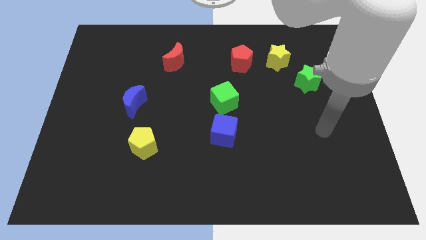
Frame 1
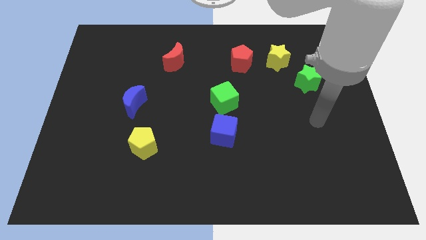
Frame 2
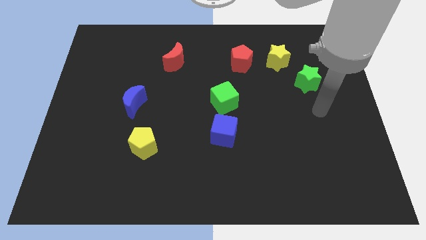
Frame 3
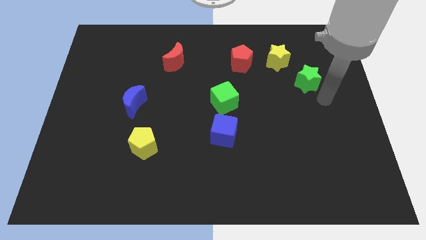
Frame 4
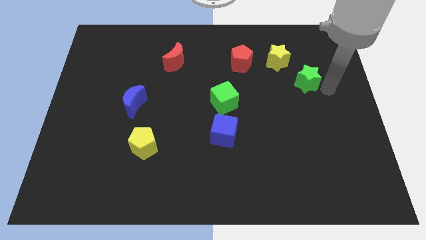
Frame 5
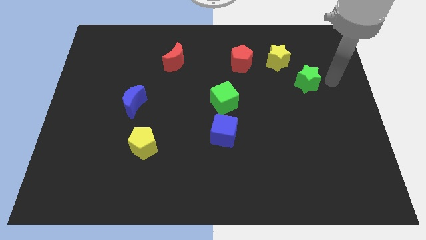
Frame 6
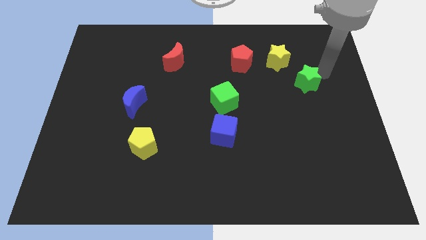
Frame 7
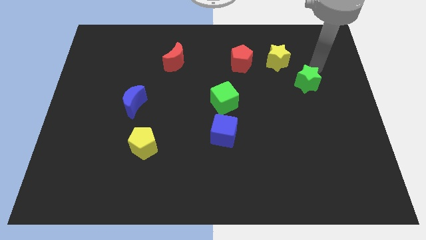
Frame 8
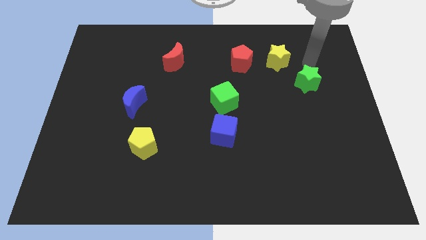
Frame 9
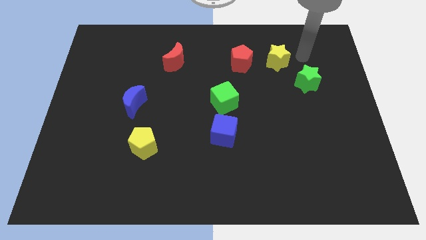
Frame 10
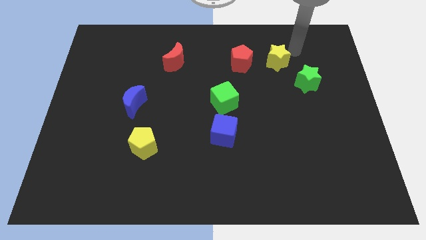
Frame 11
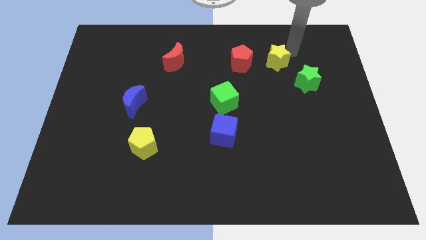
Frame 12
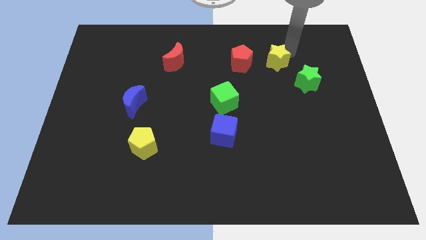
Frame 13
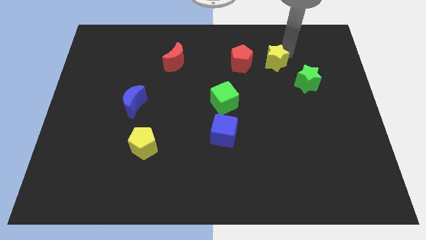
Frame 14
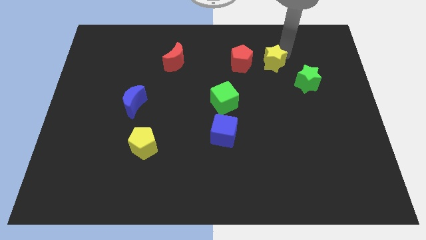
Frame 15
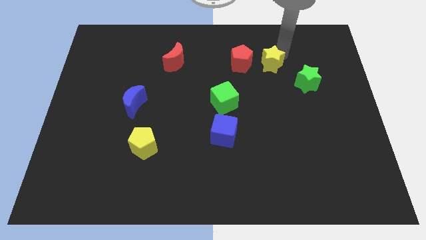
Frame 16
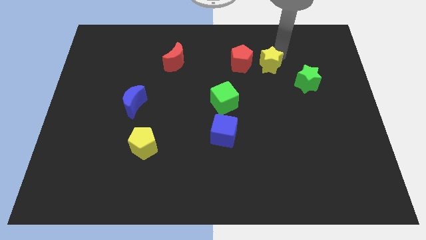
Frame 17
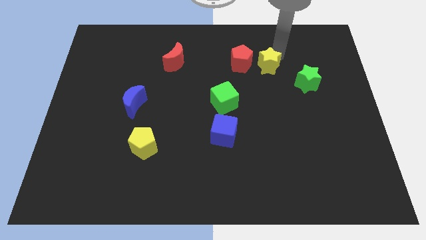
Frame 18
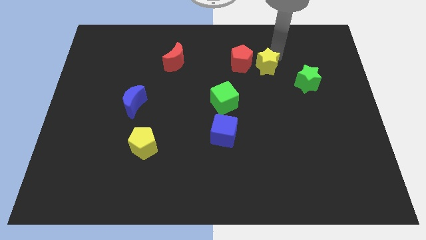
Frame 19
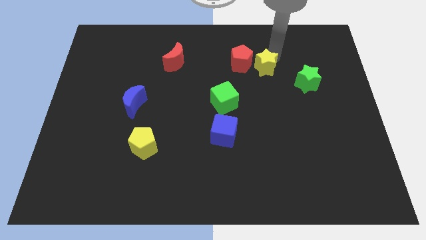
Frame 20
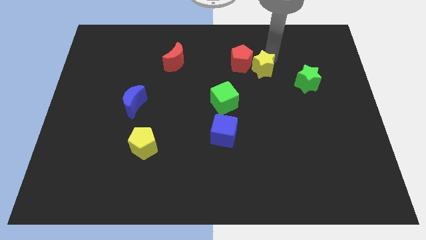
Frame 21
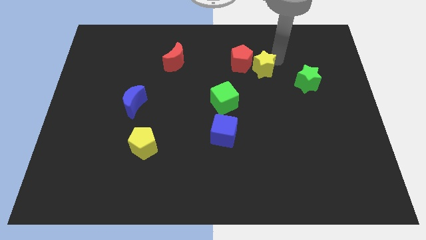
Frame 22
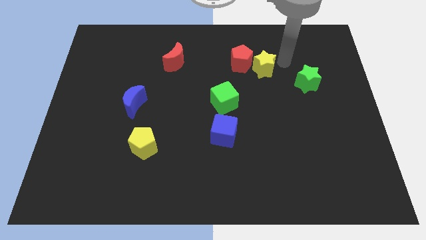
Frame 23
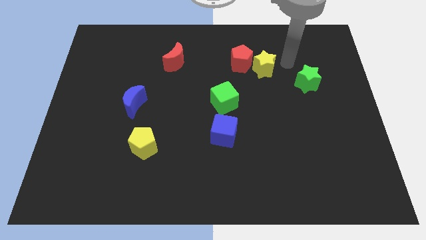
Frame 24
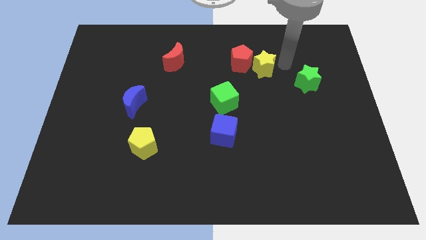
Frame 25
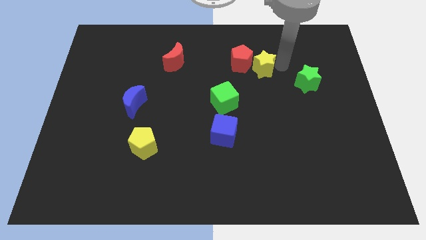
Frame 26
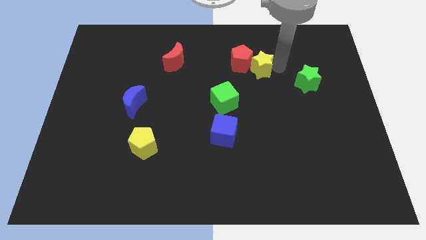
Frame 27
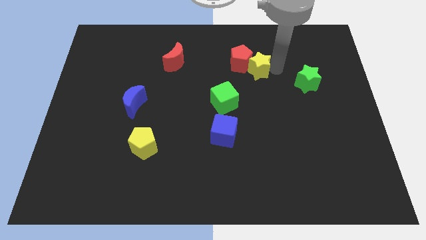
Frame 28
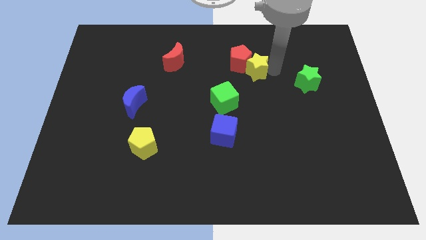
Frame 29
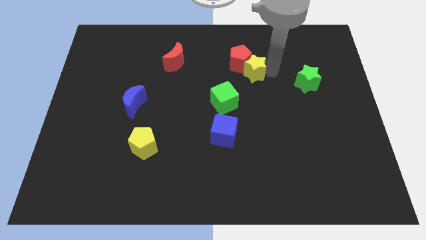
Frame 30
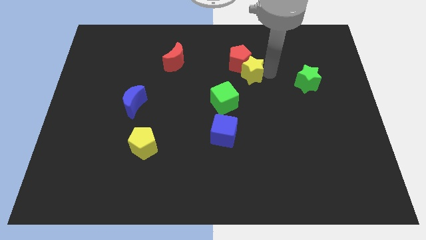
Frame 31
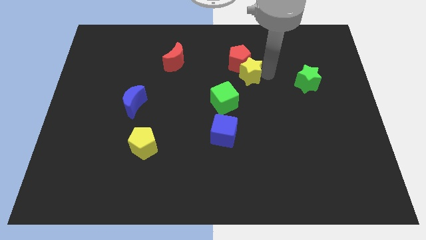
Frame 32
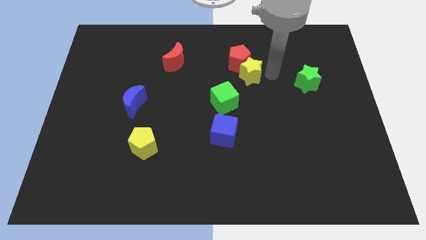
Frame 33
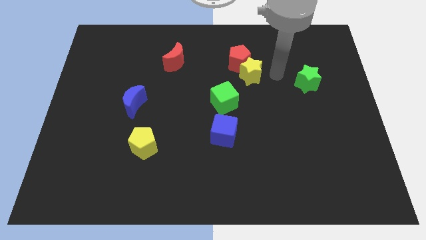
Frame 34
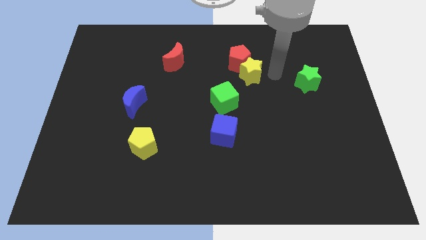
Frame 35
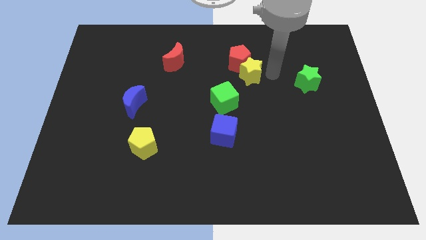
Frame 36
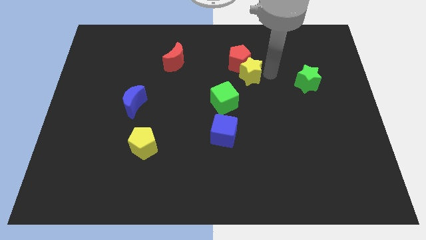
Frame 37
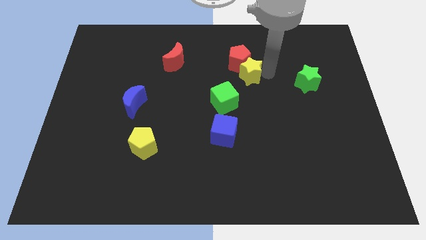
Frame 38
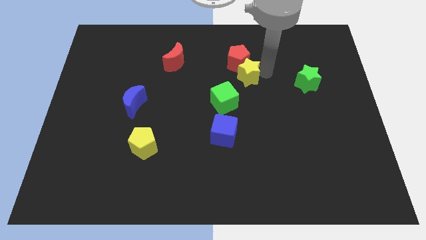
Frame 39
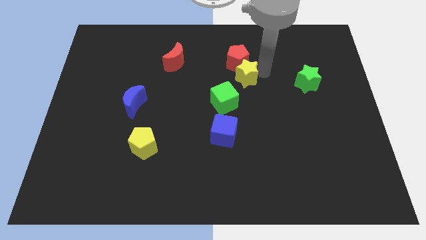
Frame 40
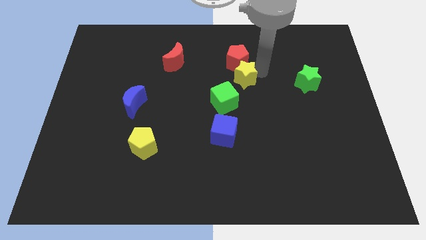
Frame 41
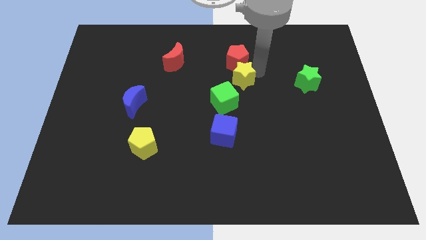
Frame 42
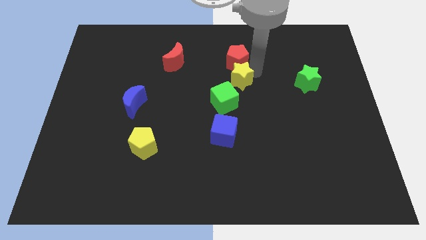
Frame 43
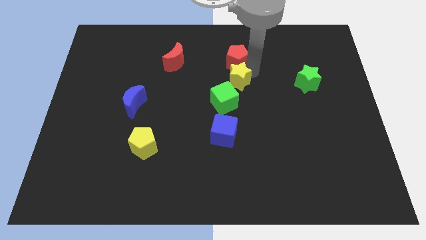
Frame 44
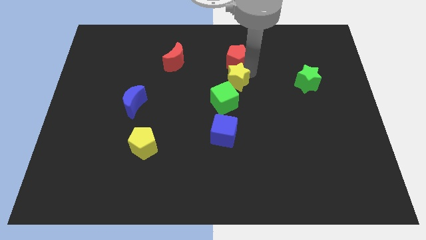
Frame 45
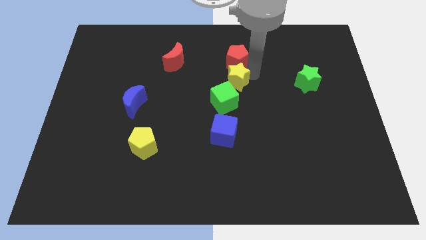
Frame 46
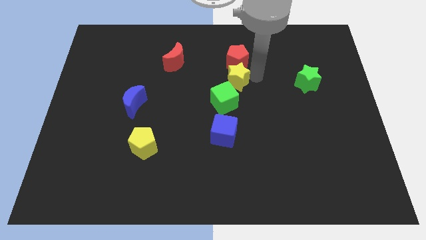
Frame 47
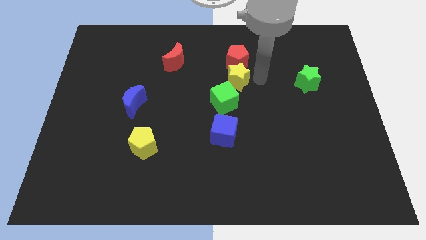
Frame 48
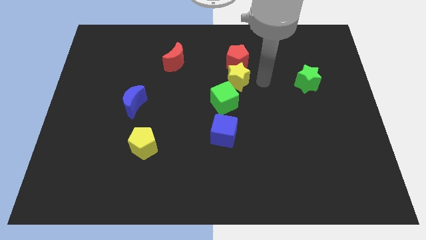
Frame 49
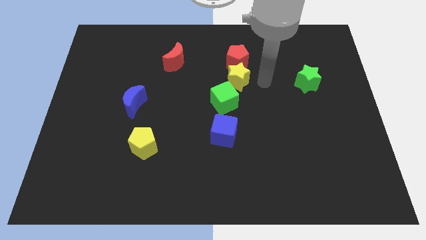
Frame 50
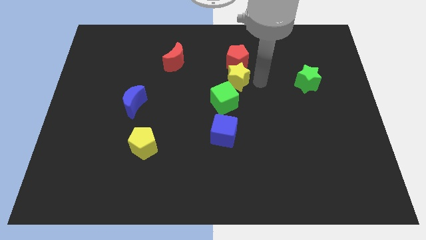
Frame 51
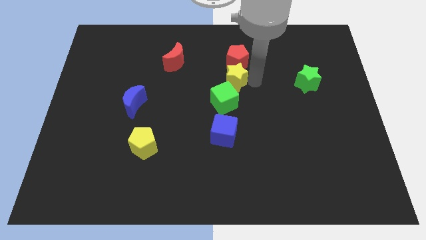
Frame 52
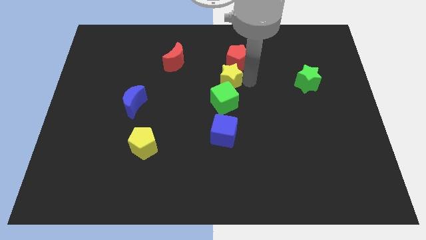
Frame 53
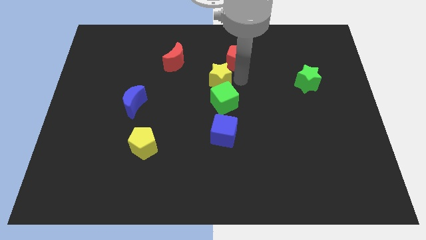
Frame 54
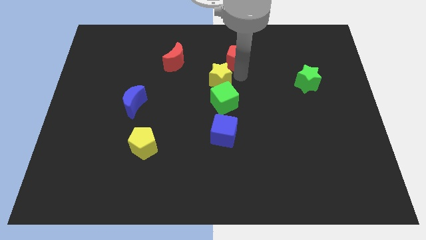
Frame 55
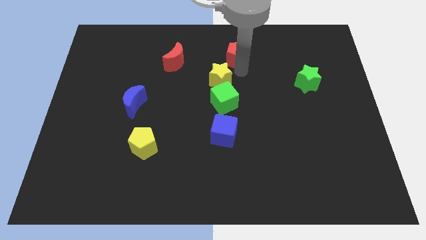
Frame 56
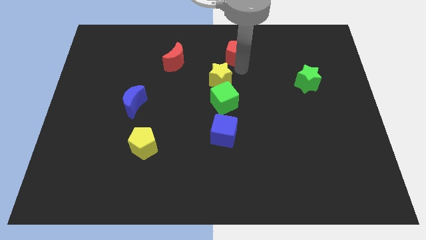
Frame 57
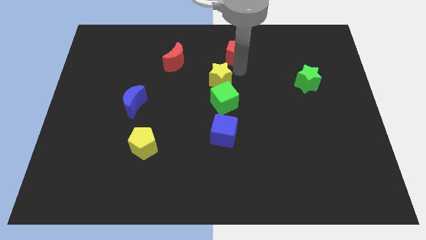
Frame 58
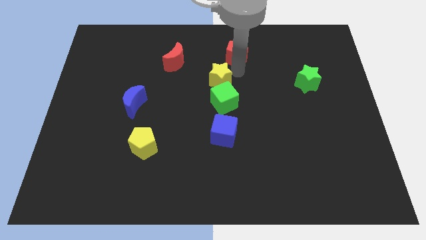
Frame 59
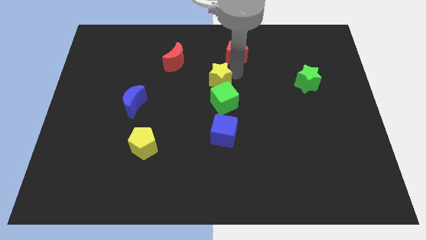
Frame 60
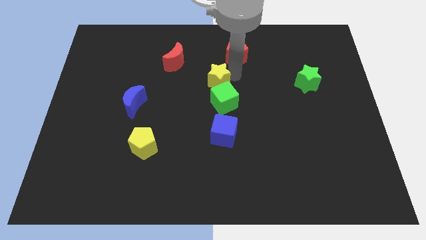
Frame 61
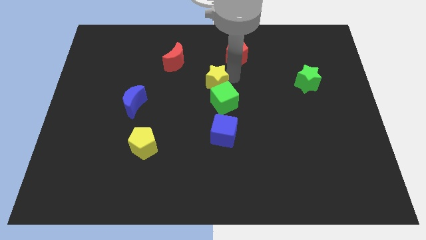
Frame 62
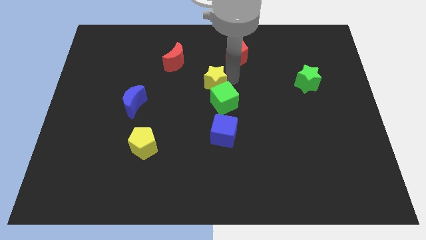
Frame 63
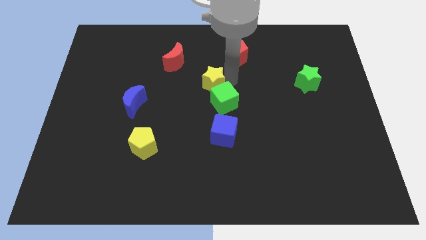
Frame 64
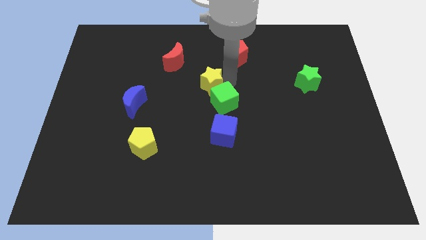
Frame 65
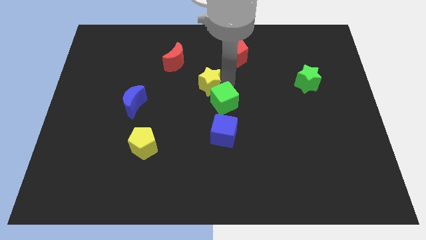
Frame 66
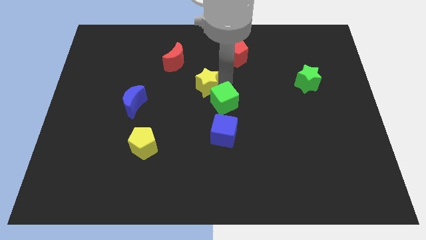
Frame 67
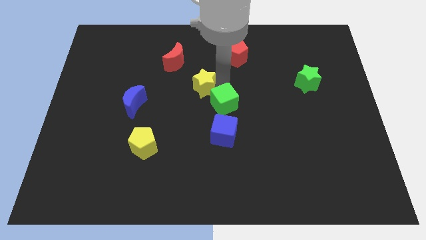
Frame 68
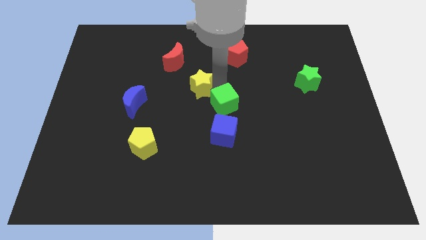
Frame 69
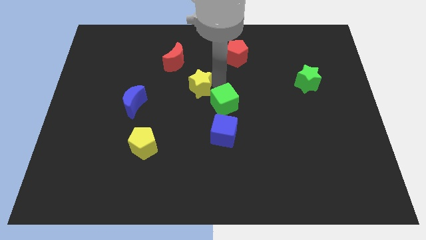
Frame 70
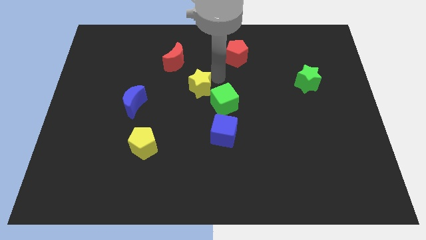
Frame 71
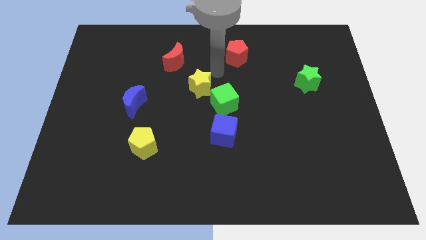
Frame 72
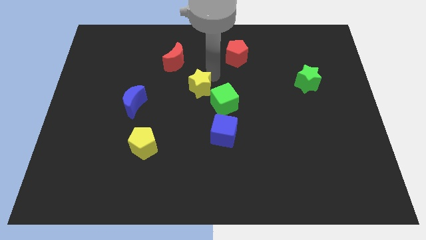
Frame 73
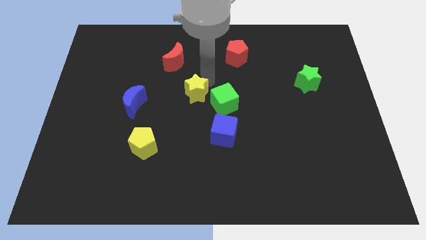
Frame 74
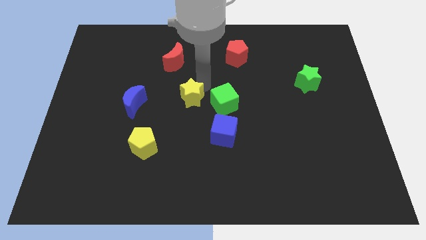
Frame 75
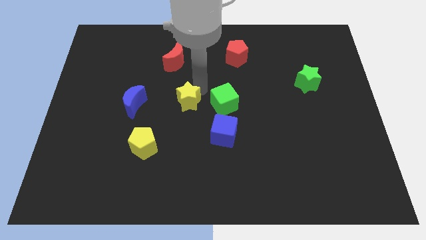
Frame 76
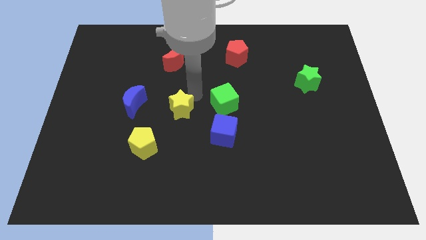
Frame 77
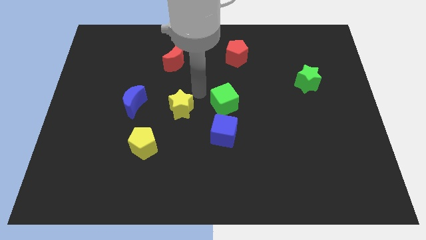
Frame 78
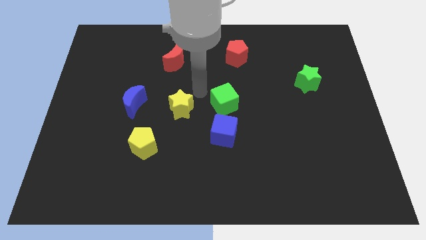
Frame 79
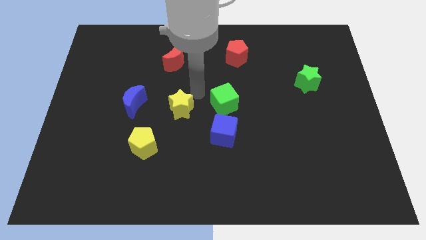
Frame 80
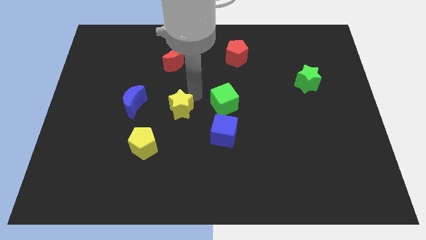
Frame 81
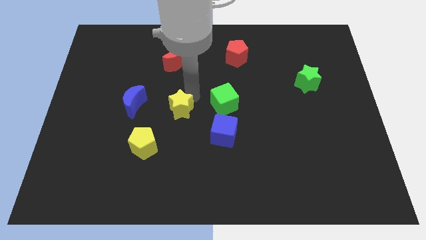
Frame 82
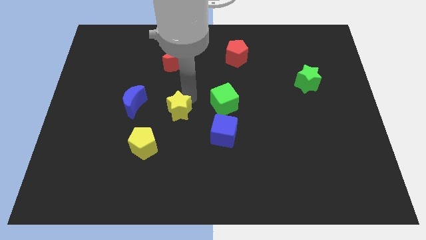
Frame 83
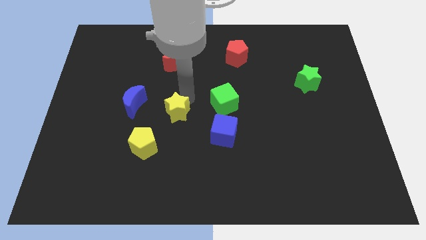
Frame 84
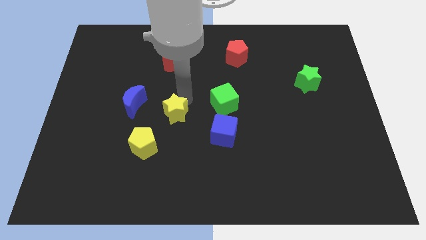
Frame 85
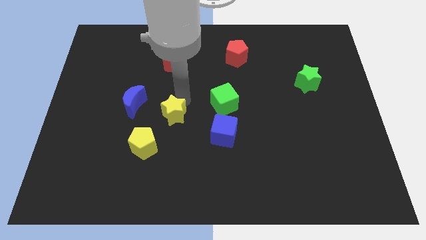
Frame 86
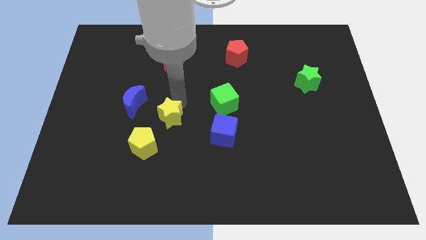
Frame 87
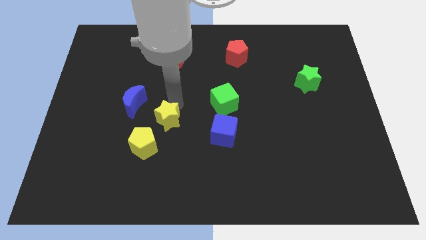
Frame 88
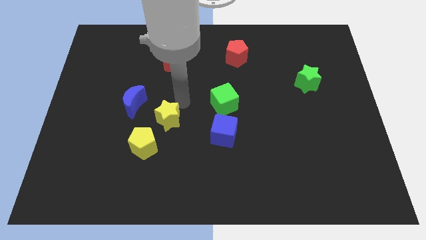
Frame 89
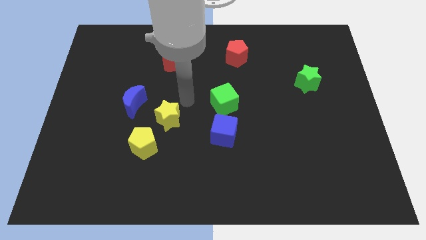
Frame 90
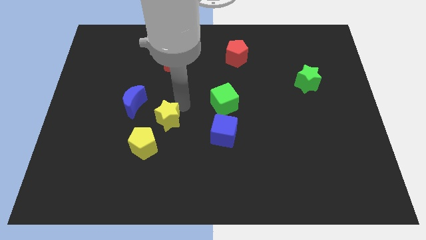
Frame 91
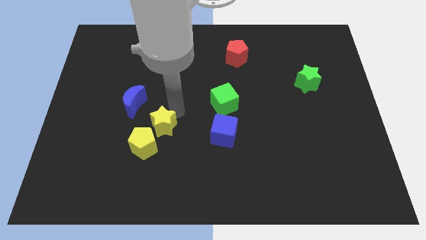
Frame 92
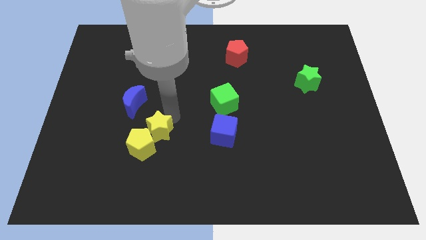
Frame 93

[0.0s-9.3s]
move the yellow star close to the yellow pentagon
